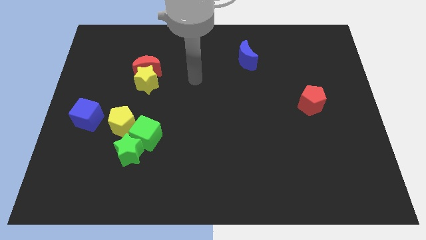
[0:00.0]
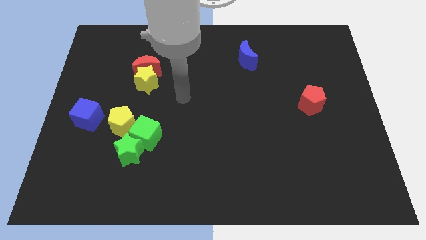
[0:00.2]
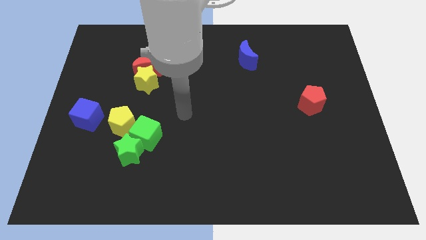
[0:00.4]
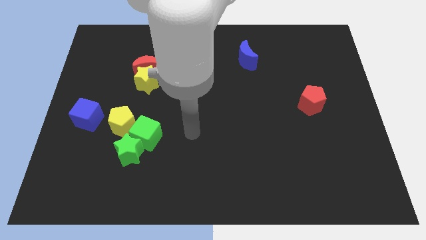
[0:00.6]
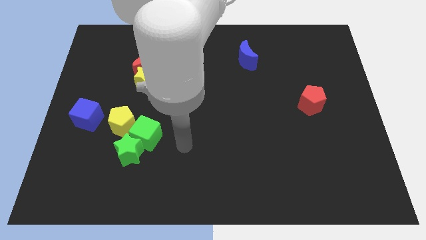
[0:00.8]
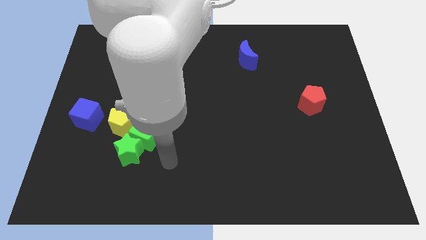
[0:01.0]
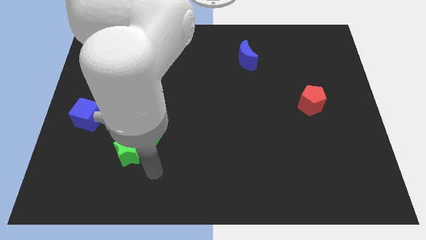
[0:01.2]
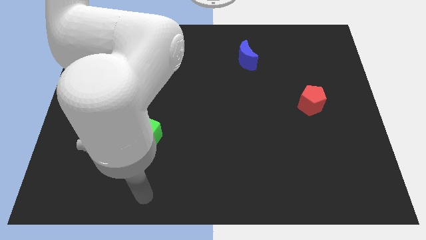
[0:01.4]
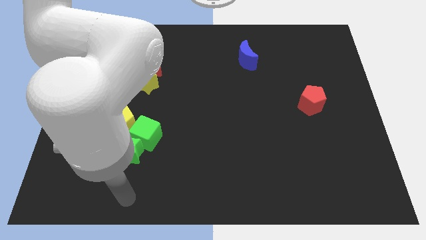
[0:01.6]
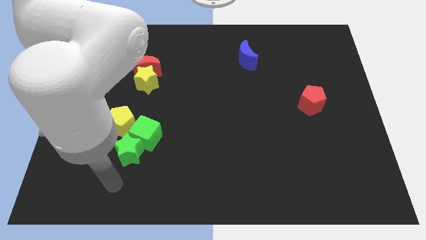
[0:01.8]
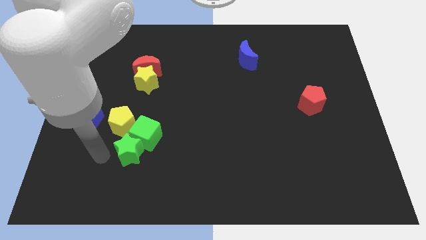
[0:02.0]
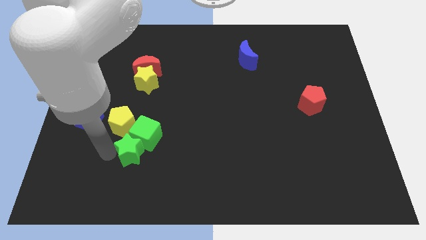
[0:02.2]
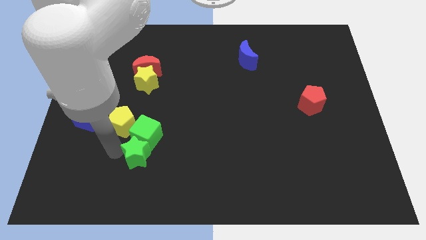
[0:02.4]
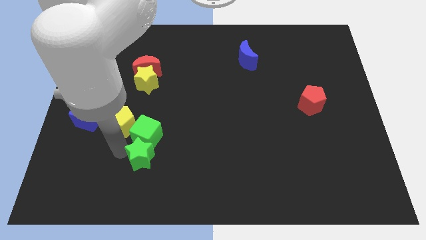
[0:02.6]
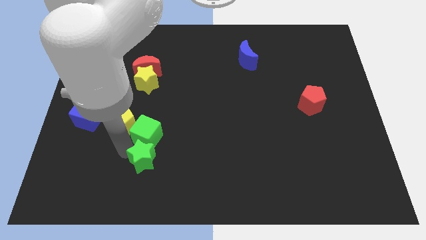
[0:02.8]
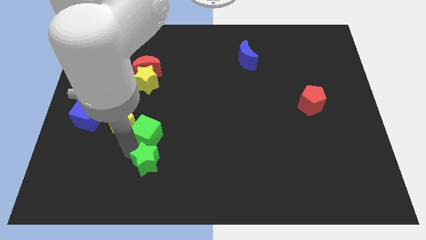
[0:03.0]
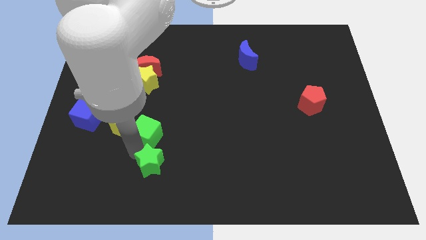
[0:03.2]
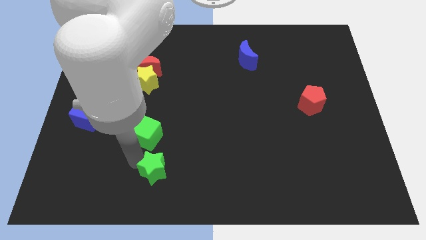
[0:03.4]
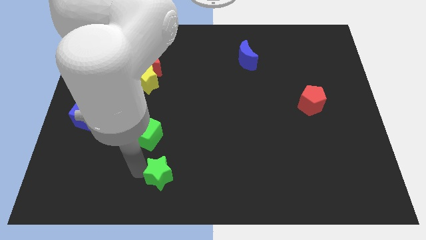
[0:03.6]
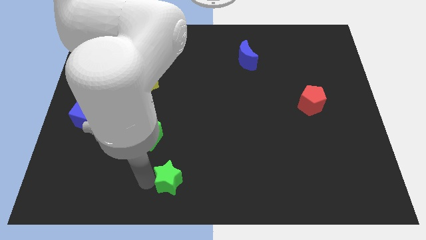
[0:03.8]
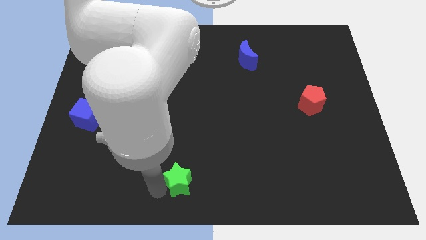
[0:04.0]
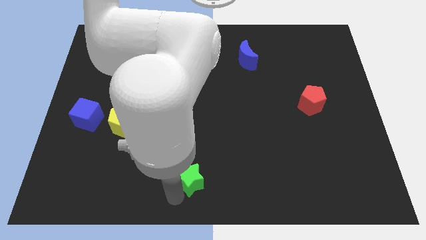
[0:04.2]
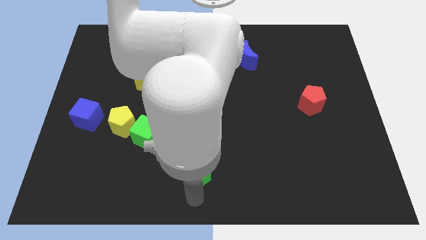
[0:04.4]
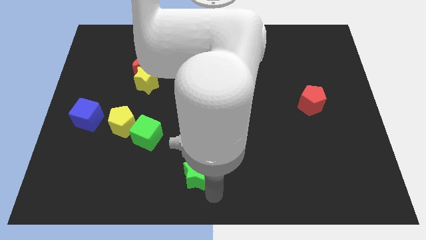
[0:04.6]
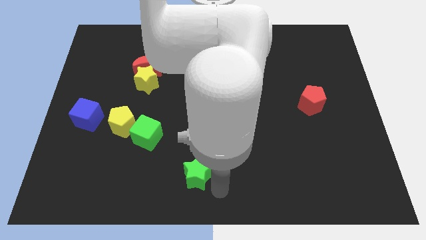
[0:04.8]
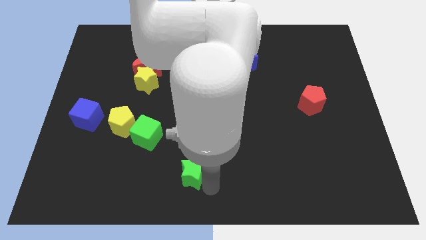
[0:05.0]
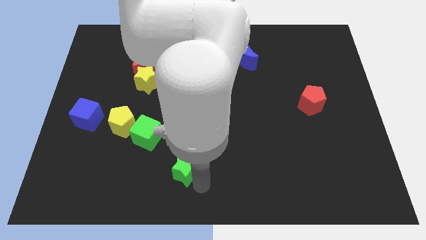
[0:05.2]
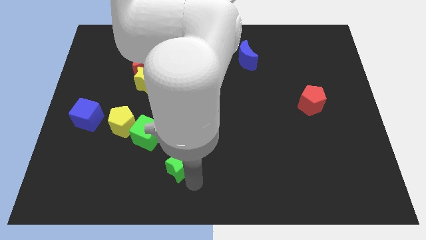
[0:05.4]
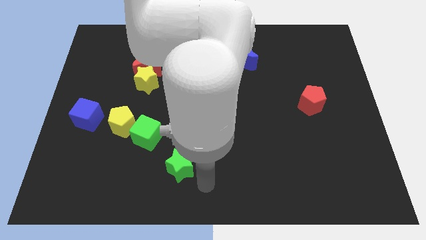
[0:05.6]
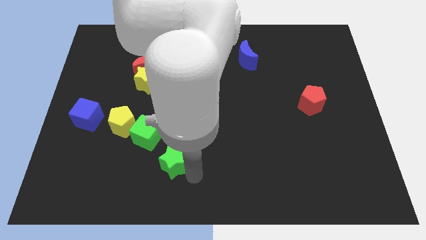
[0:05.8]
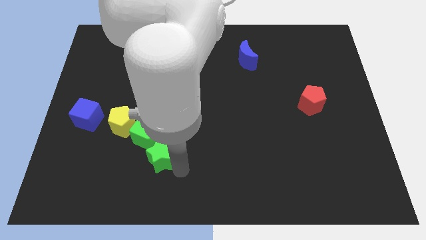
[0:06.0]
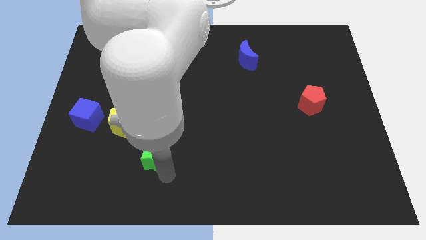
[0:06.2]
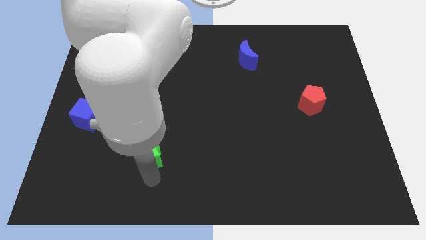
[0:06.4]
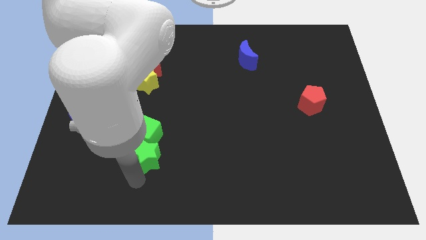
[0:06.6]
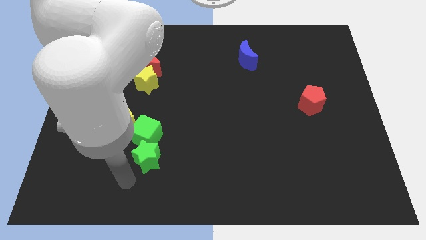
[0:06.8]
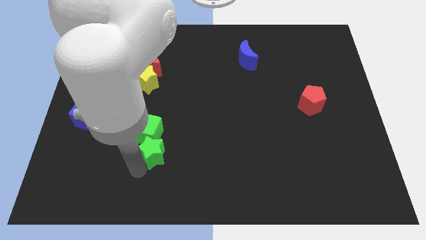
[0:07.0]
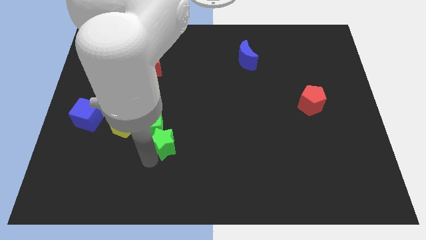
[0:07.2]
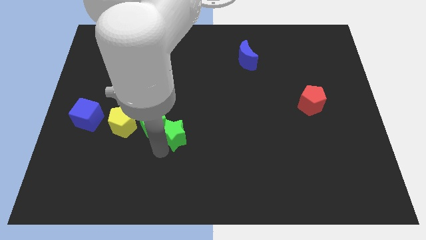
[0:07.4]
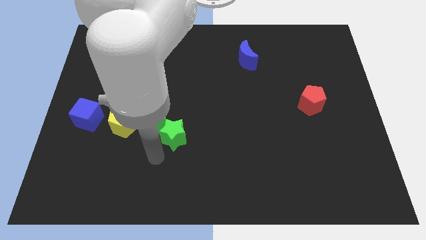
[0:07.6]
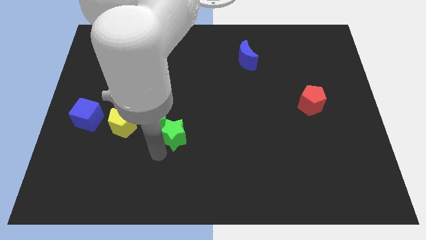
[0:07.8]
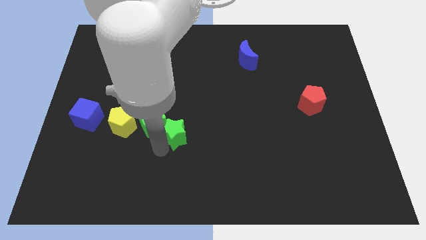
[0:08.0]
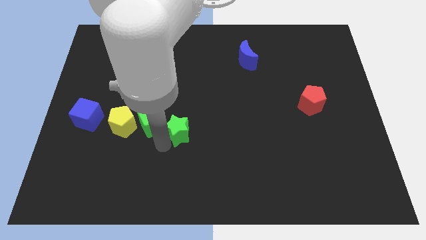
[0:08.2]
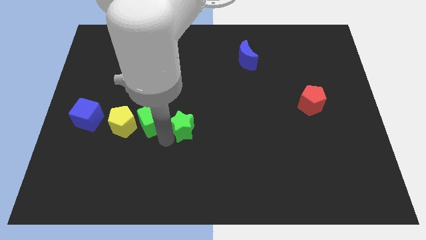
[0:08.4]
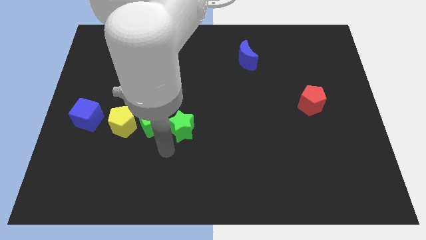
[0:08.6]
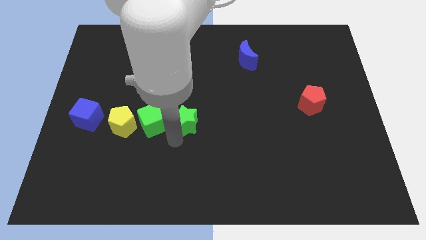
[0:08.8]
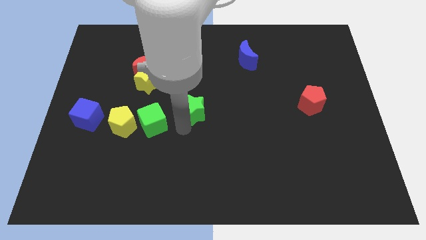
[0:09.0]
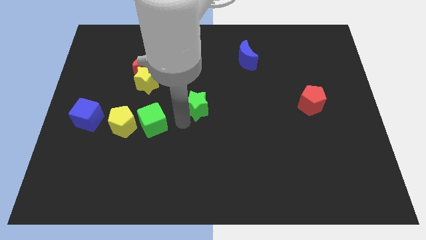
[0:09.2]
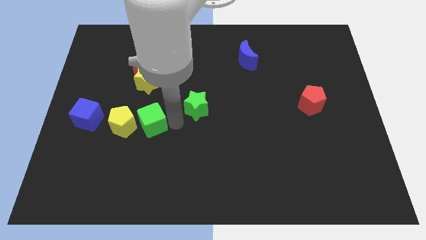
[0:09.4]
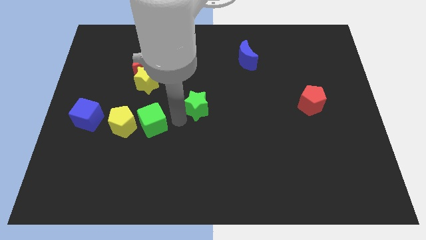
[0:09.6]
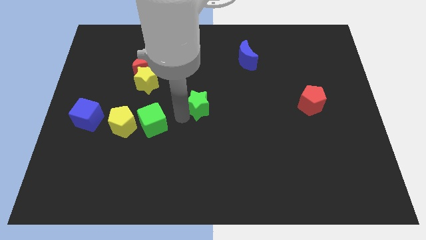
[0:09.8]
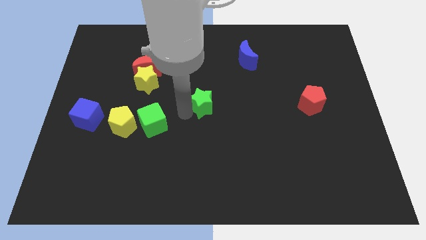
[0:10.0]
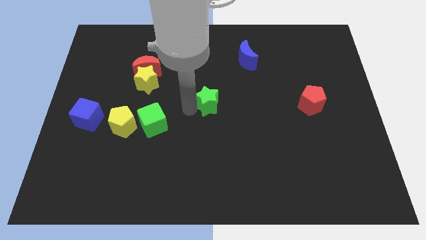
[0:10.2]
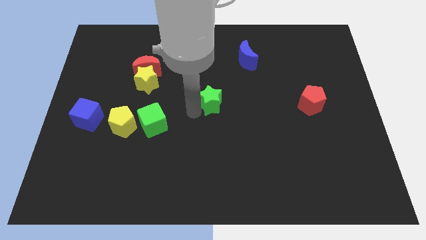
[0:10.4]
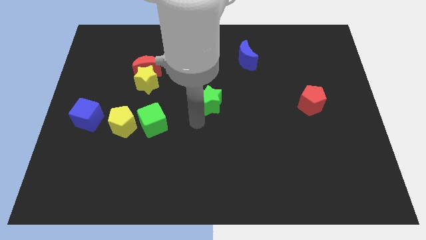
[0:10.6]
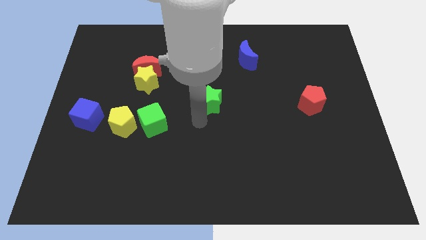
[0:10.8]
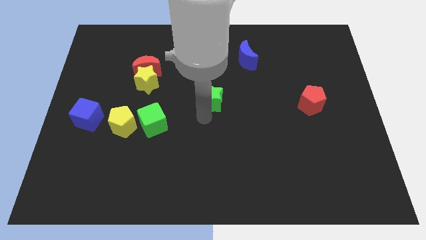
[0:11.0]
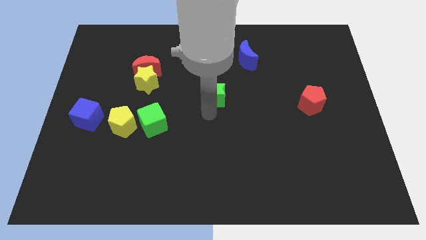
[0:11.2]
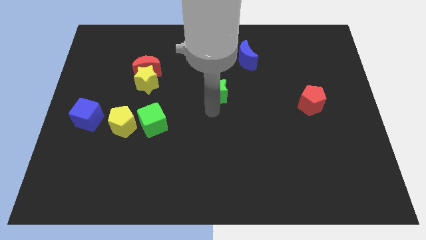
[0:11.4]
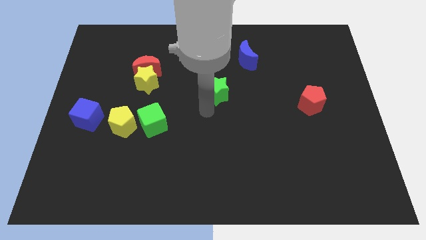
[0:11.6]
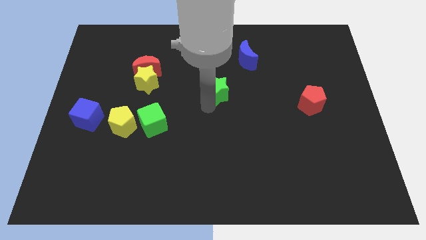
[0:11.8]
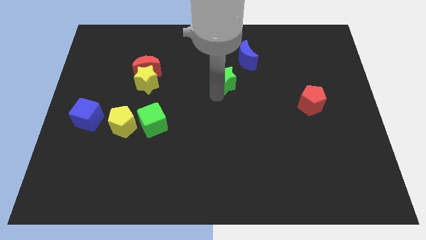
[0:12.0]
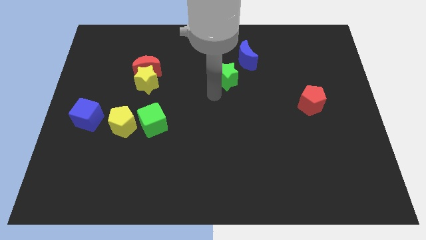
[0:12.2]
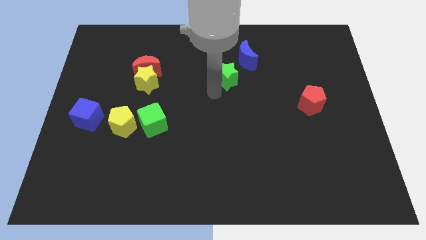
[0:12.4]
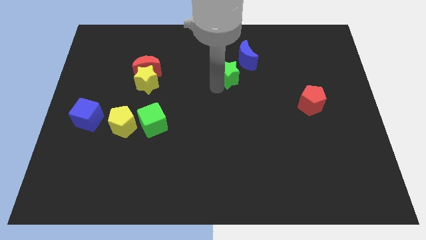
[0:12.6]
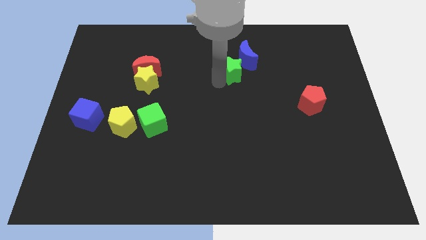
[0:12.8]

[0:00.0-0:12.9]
put the green star close to the blue moon

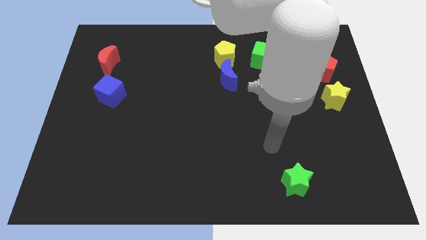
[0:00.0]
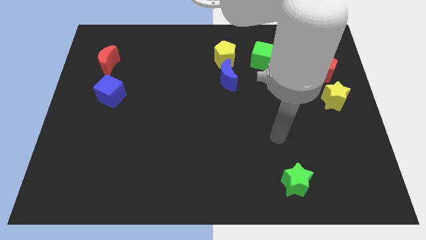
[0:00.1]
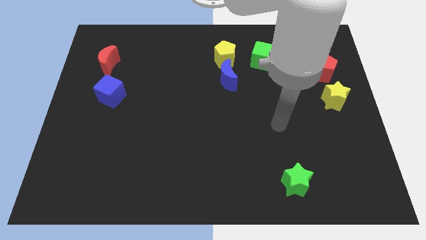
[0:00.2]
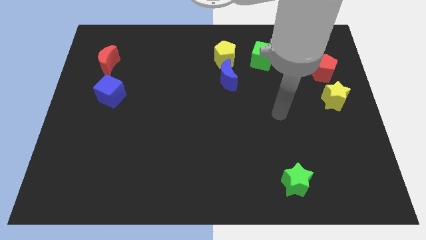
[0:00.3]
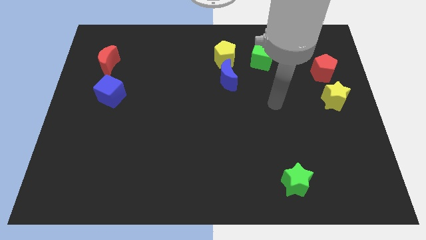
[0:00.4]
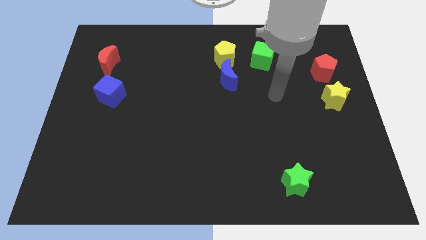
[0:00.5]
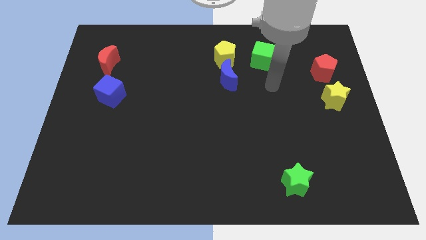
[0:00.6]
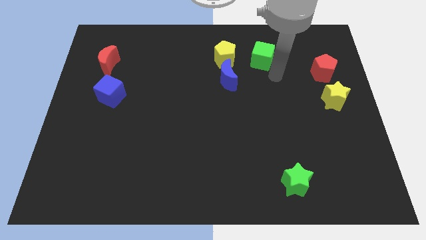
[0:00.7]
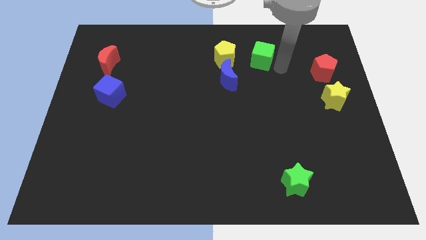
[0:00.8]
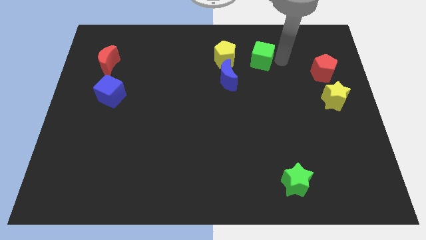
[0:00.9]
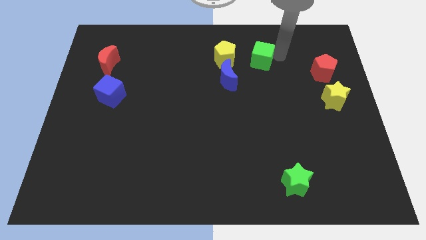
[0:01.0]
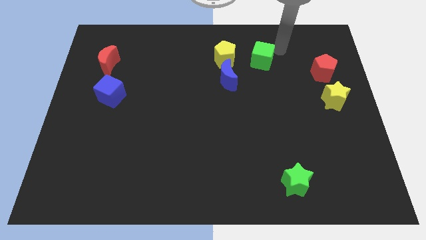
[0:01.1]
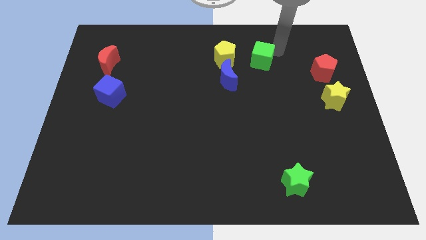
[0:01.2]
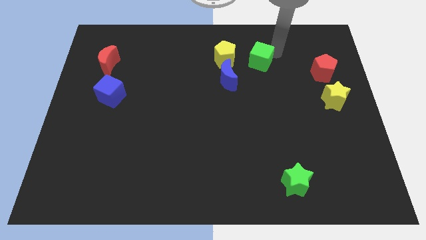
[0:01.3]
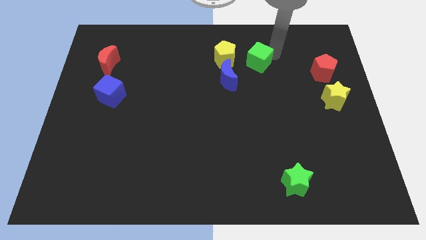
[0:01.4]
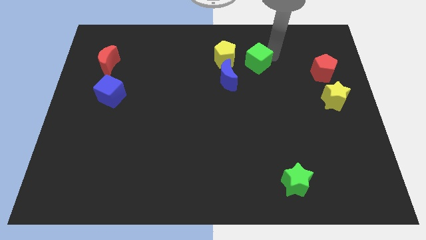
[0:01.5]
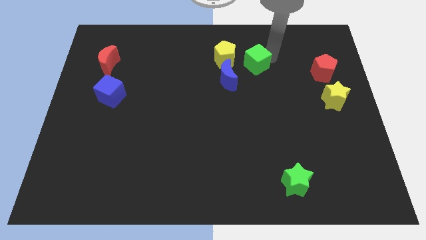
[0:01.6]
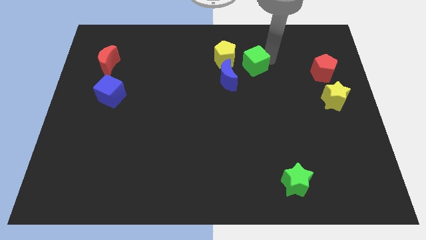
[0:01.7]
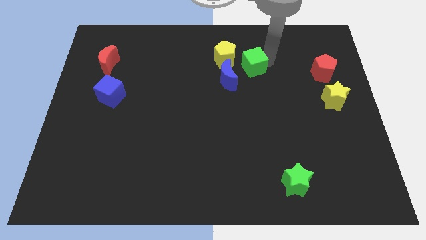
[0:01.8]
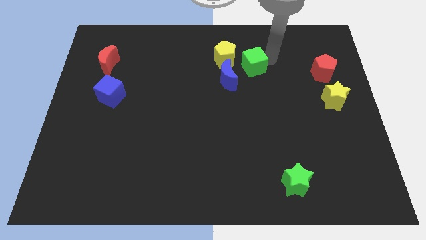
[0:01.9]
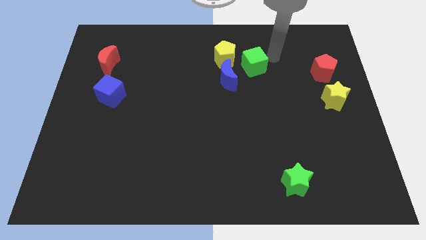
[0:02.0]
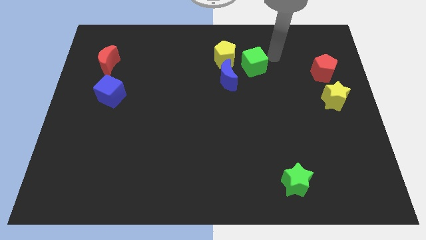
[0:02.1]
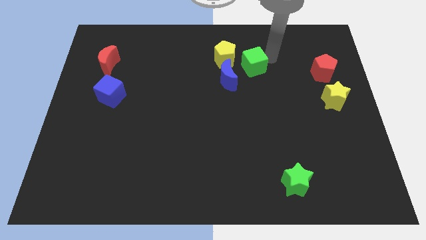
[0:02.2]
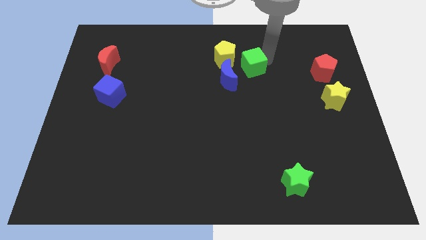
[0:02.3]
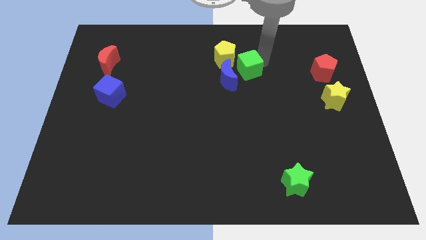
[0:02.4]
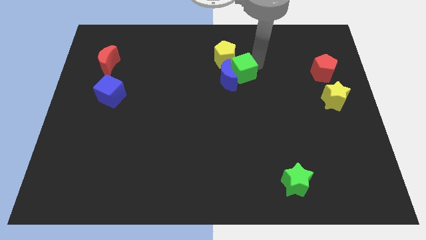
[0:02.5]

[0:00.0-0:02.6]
move the green cube to the blue moon
